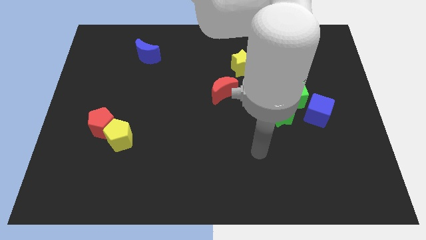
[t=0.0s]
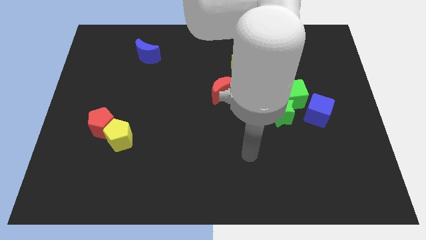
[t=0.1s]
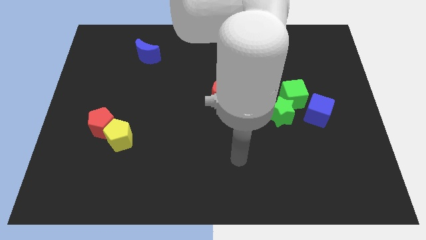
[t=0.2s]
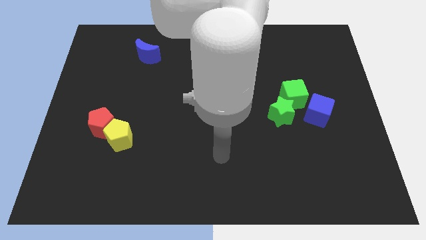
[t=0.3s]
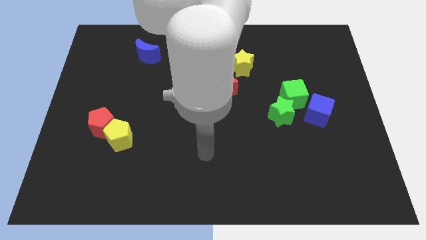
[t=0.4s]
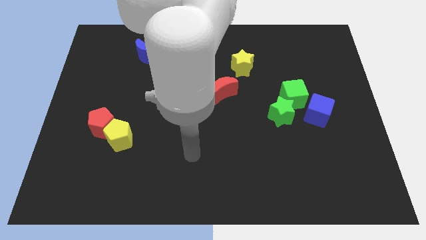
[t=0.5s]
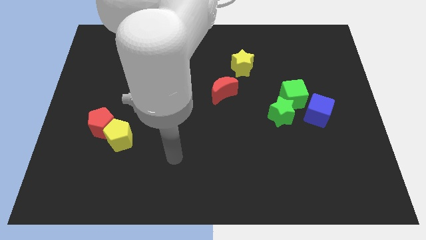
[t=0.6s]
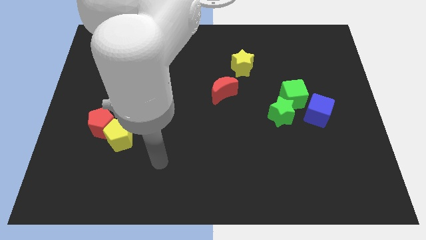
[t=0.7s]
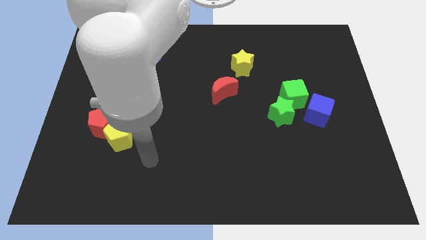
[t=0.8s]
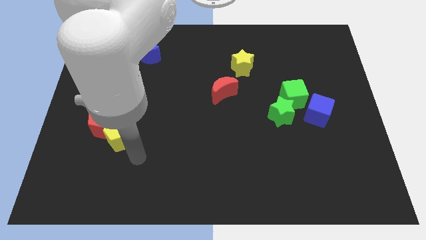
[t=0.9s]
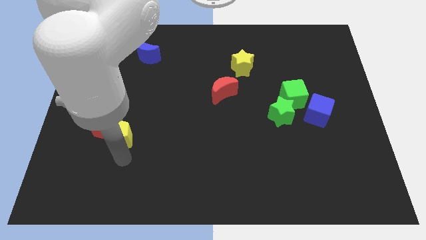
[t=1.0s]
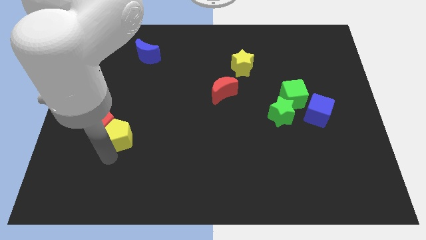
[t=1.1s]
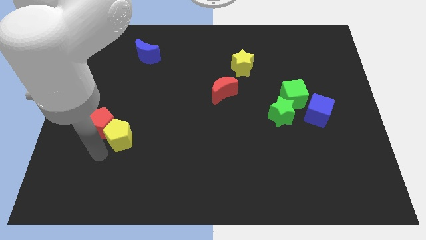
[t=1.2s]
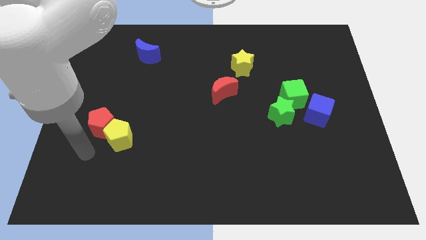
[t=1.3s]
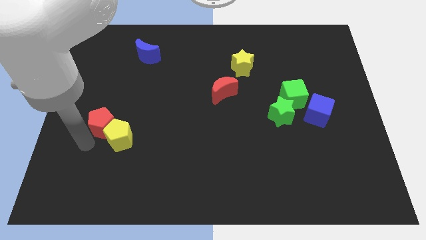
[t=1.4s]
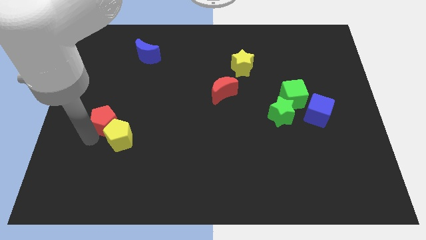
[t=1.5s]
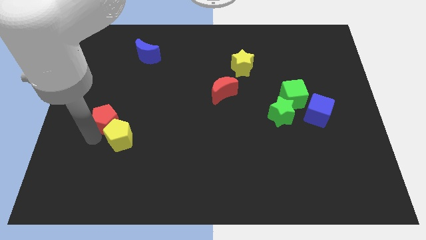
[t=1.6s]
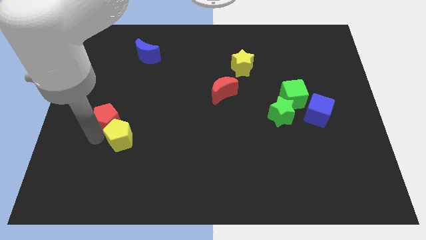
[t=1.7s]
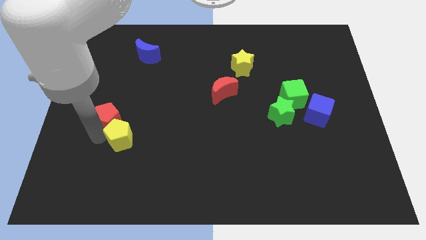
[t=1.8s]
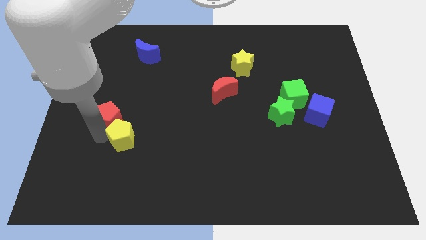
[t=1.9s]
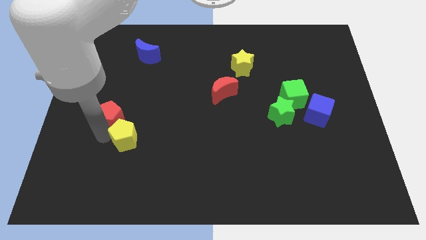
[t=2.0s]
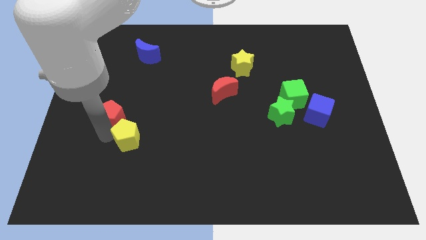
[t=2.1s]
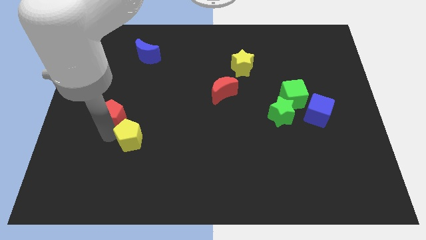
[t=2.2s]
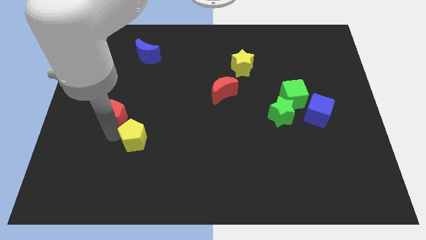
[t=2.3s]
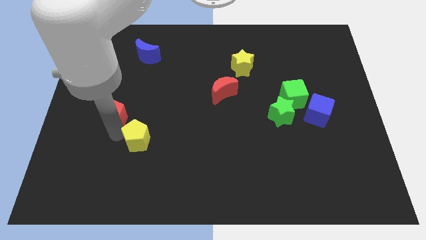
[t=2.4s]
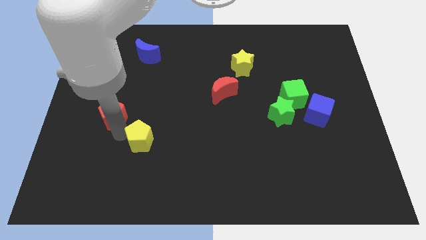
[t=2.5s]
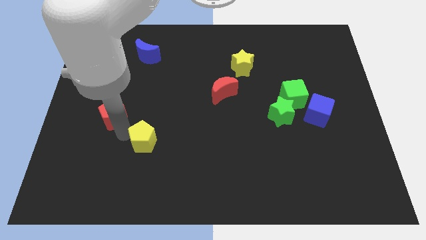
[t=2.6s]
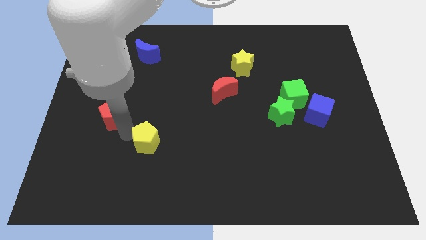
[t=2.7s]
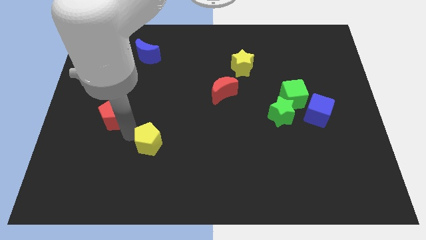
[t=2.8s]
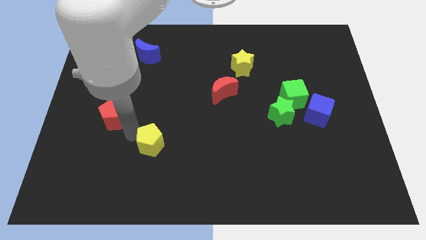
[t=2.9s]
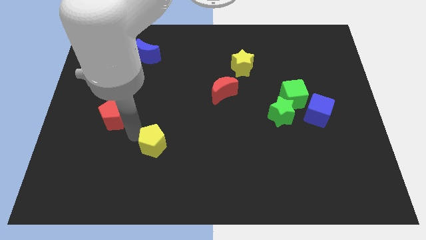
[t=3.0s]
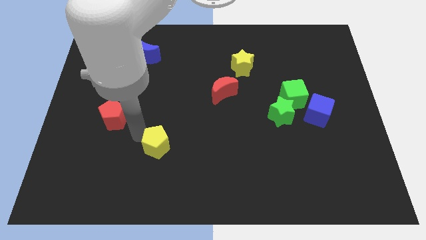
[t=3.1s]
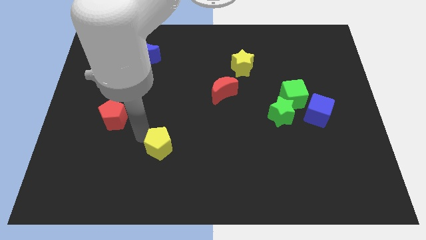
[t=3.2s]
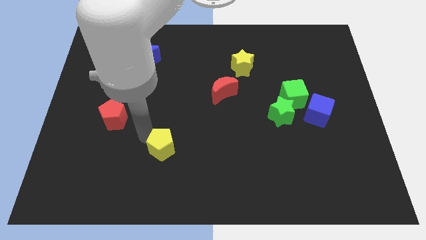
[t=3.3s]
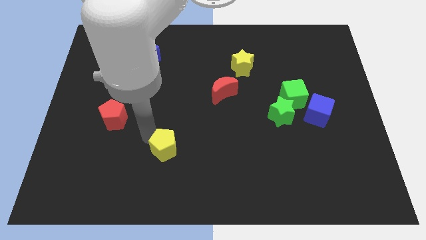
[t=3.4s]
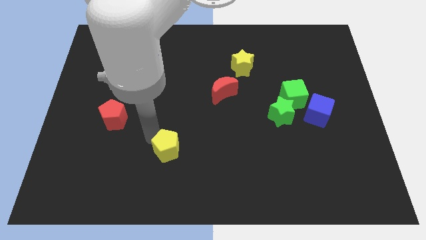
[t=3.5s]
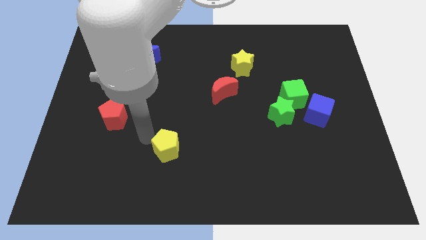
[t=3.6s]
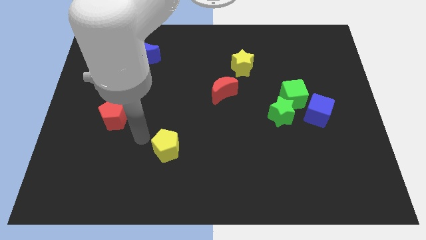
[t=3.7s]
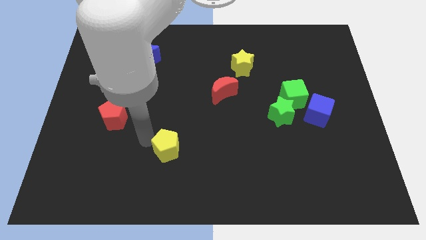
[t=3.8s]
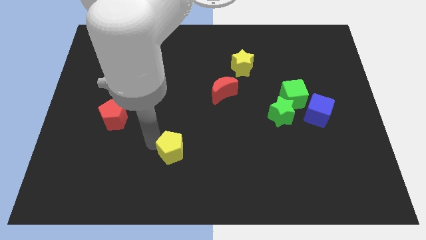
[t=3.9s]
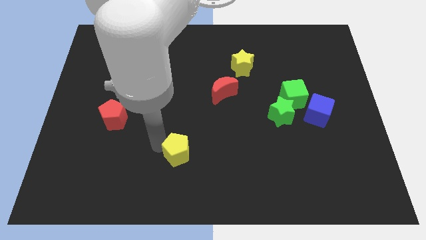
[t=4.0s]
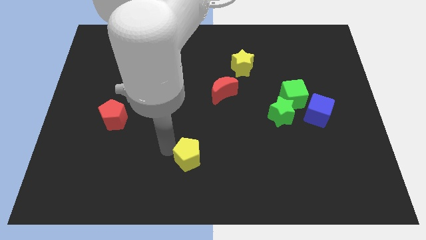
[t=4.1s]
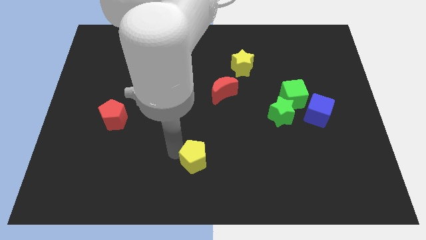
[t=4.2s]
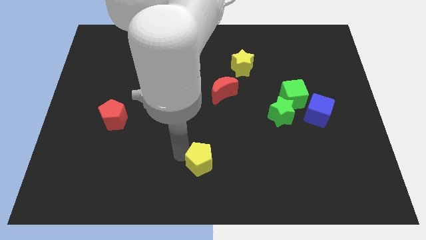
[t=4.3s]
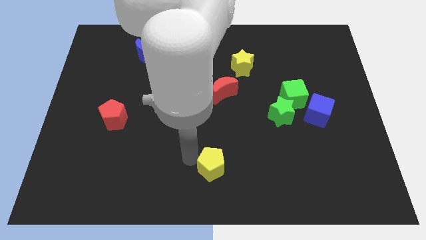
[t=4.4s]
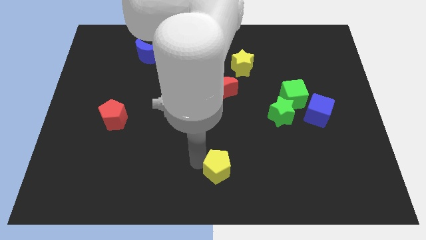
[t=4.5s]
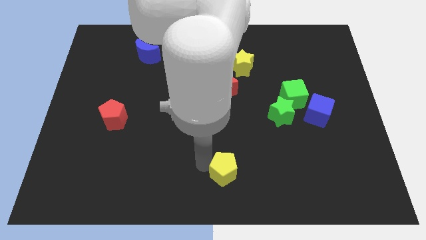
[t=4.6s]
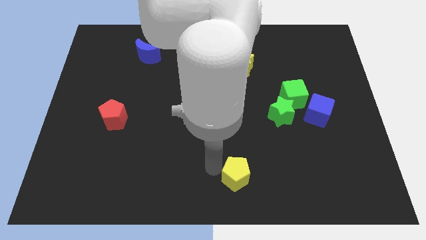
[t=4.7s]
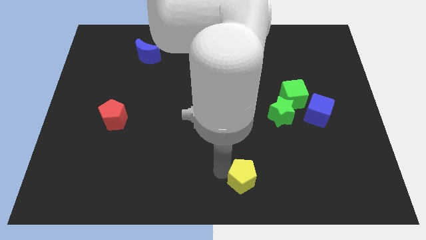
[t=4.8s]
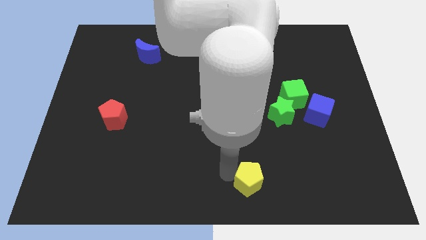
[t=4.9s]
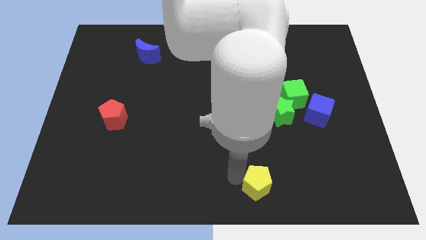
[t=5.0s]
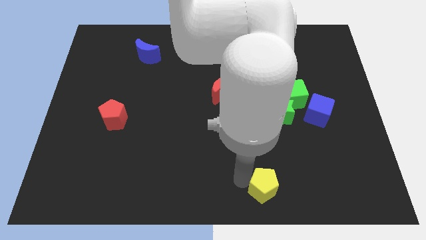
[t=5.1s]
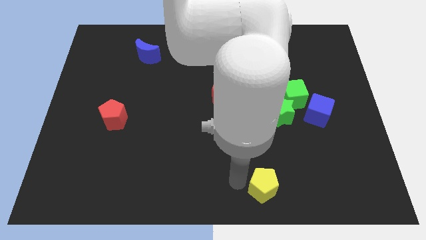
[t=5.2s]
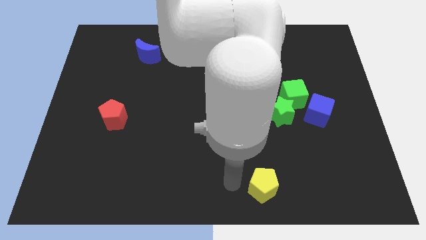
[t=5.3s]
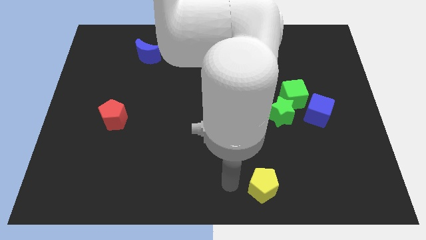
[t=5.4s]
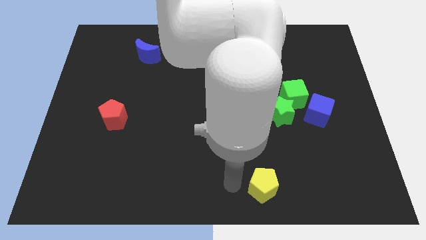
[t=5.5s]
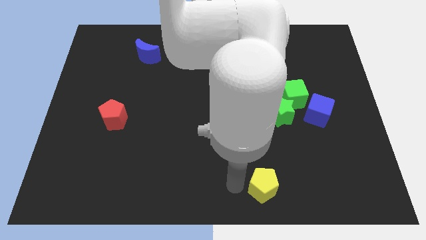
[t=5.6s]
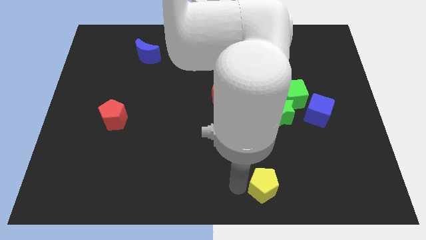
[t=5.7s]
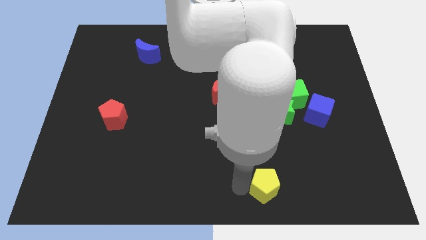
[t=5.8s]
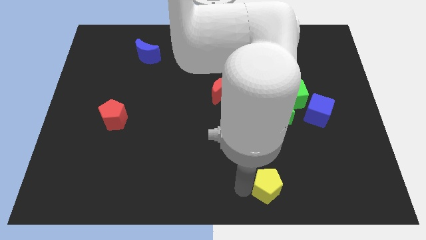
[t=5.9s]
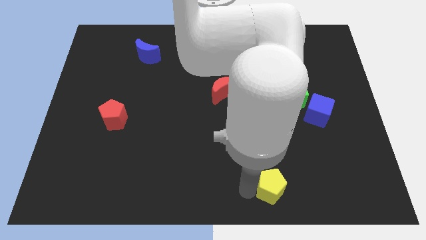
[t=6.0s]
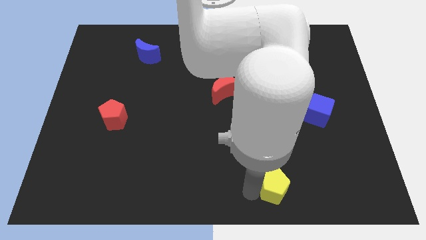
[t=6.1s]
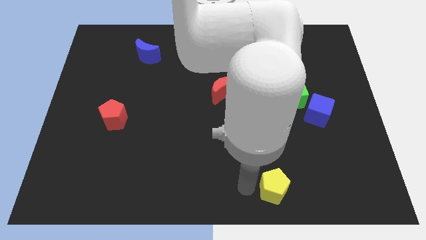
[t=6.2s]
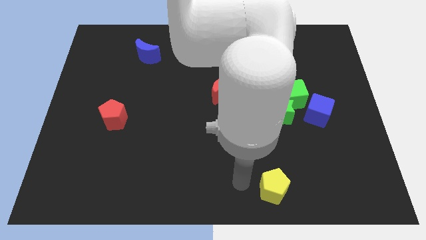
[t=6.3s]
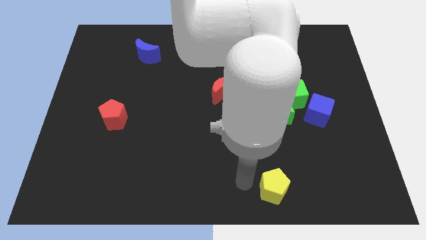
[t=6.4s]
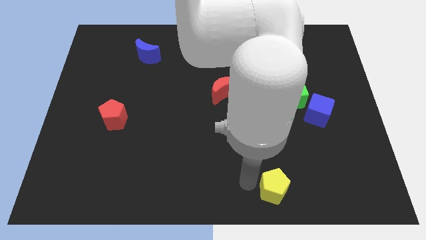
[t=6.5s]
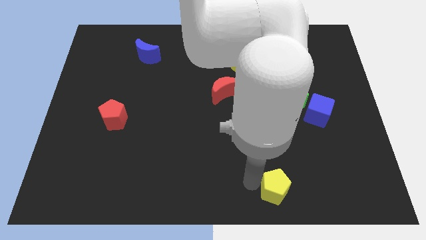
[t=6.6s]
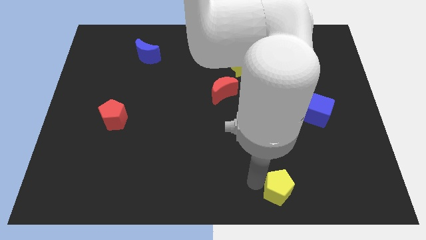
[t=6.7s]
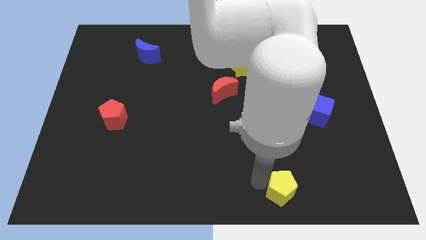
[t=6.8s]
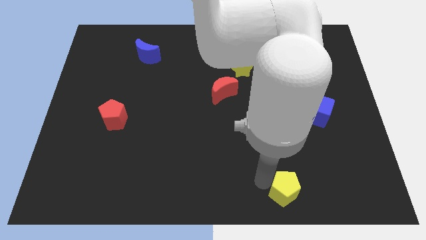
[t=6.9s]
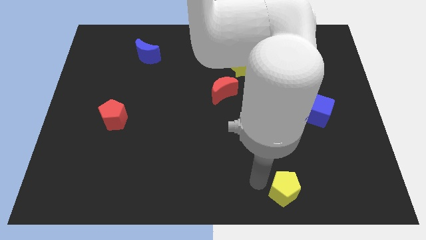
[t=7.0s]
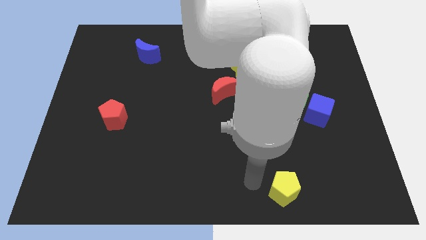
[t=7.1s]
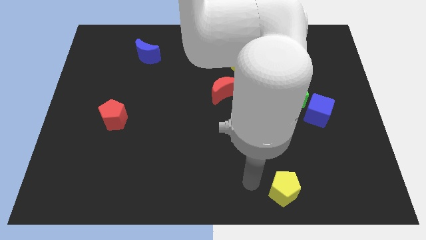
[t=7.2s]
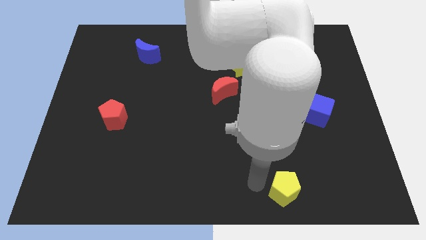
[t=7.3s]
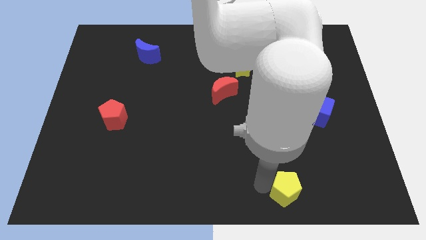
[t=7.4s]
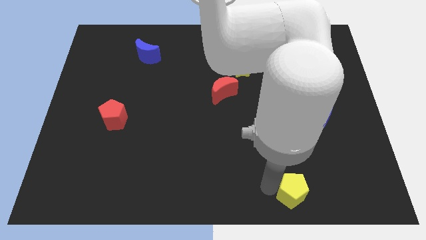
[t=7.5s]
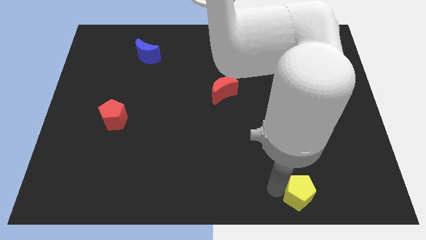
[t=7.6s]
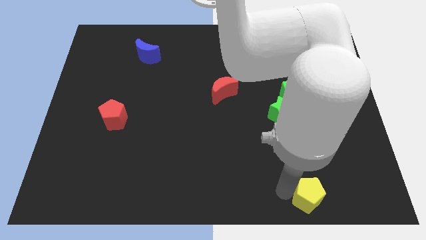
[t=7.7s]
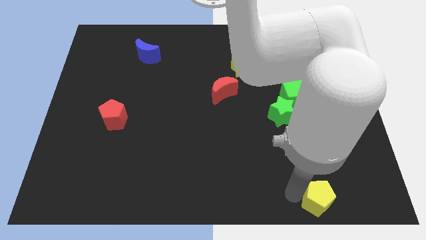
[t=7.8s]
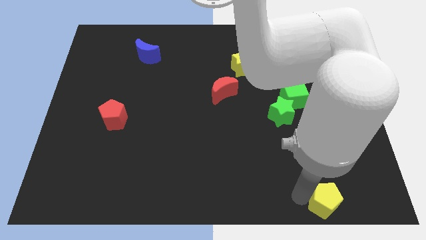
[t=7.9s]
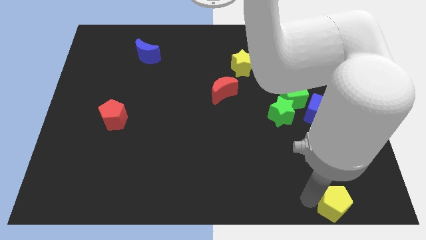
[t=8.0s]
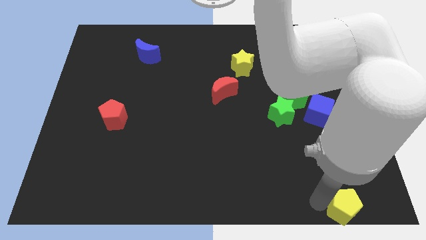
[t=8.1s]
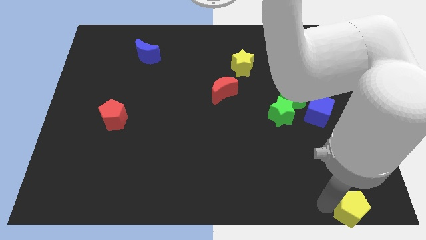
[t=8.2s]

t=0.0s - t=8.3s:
move the yellow pentagon to the lower right corner
